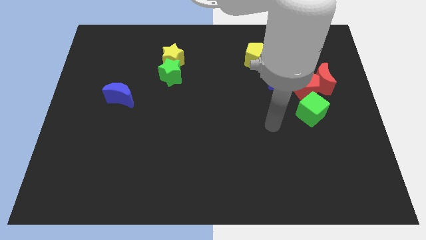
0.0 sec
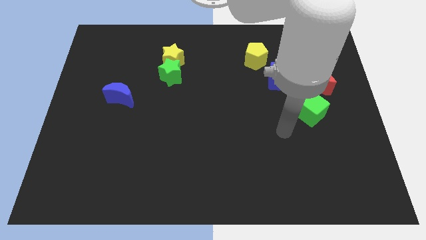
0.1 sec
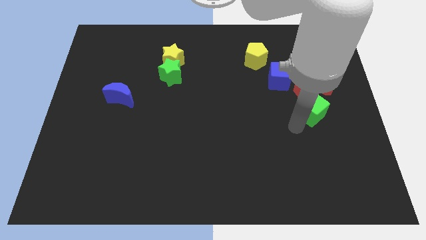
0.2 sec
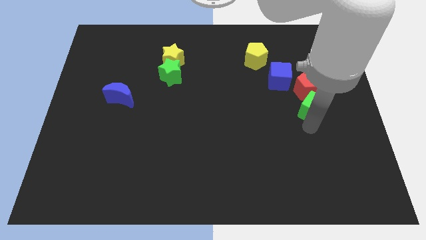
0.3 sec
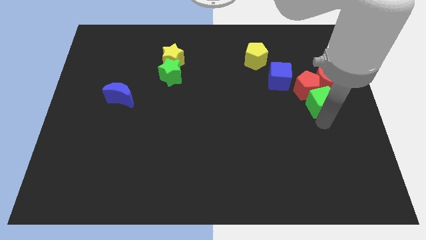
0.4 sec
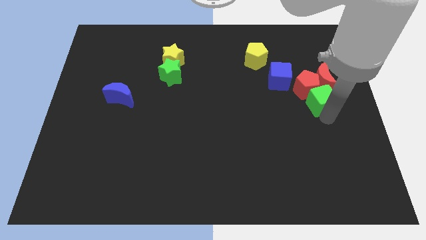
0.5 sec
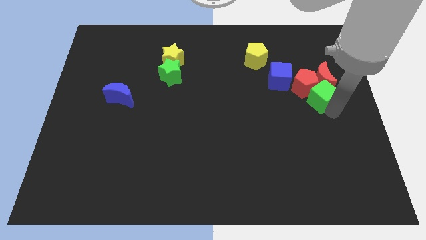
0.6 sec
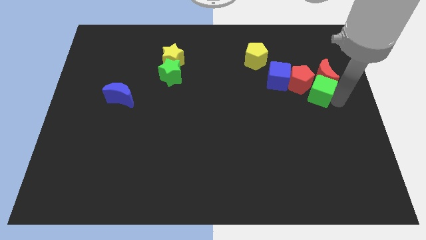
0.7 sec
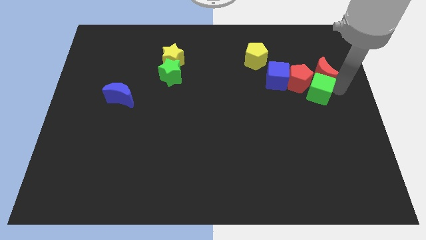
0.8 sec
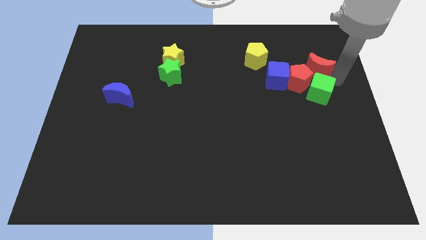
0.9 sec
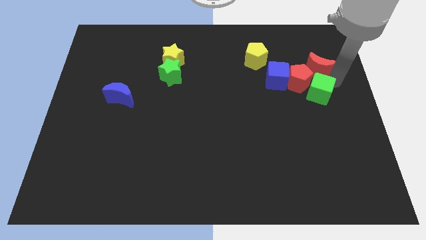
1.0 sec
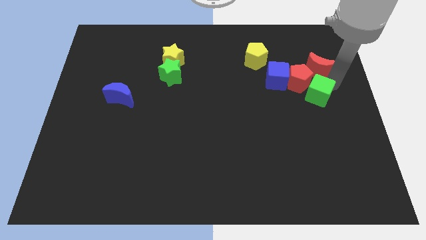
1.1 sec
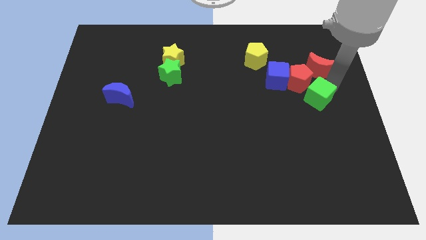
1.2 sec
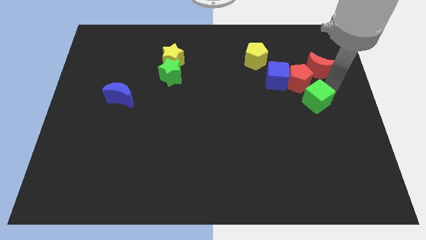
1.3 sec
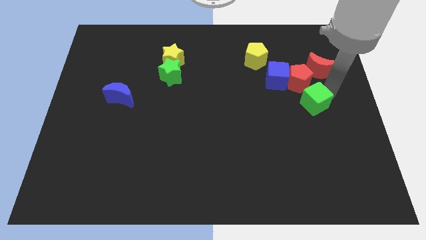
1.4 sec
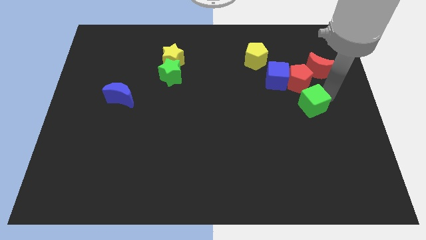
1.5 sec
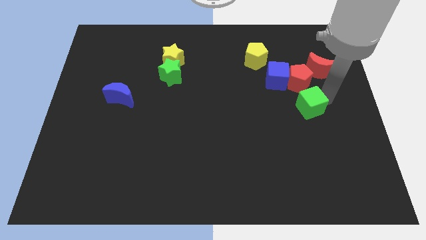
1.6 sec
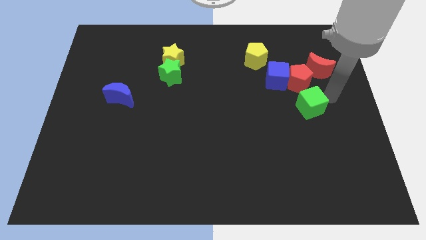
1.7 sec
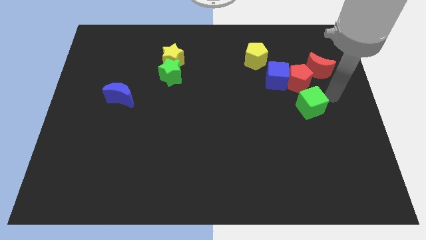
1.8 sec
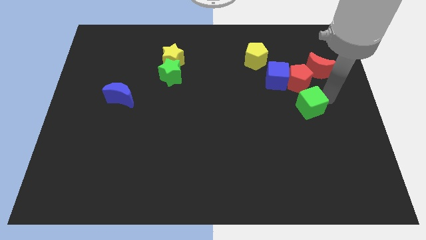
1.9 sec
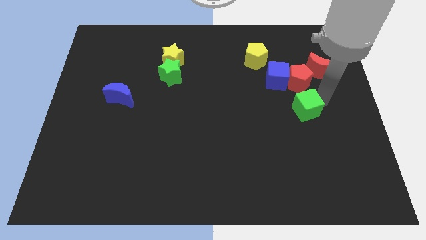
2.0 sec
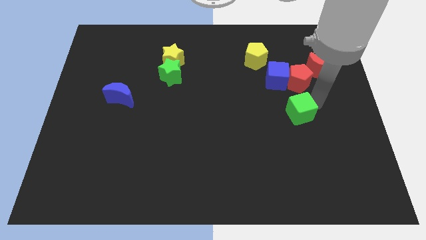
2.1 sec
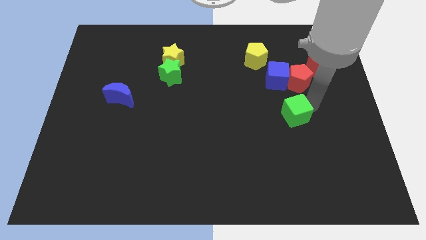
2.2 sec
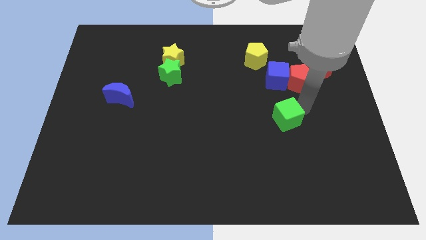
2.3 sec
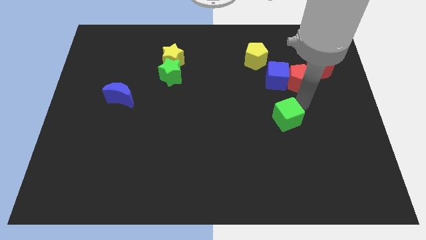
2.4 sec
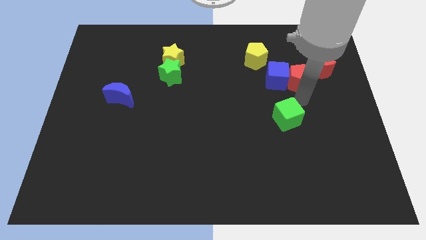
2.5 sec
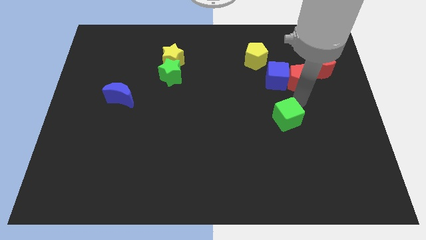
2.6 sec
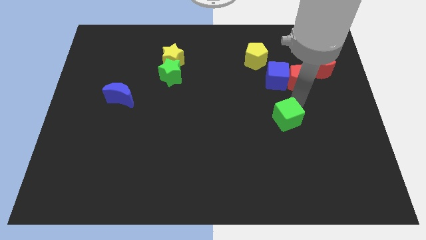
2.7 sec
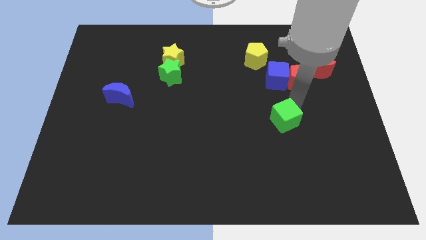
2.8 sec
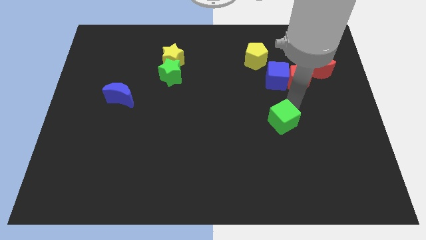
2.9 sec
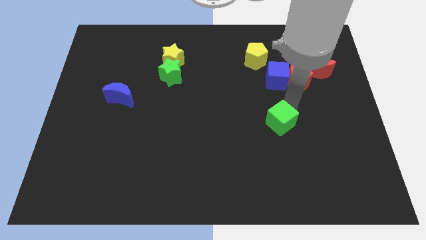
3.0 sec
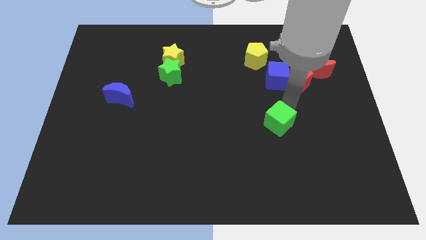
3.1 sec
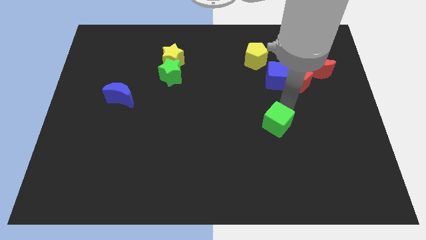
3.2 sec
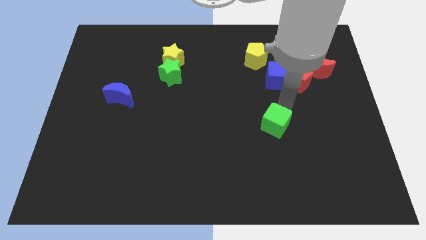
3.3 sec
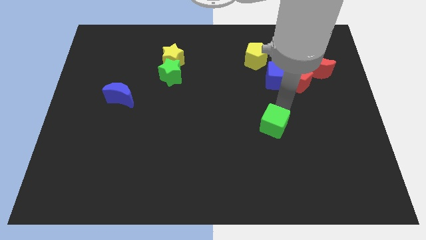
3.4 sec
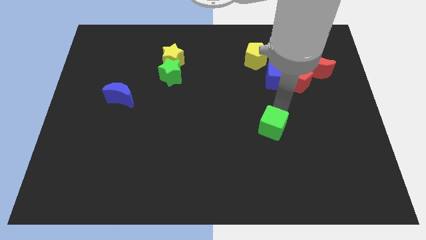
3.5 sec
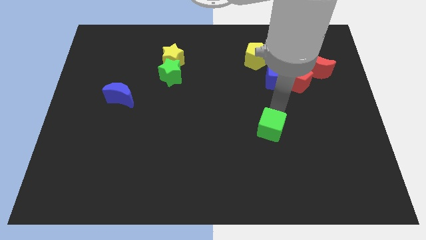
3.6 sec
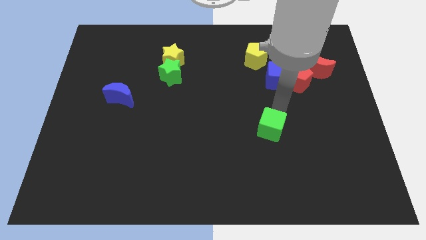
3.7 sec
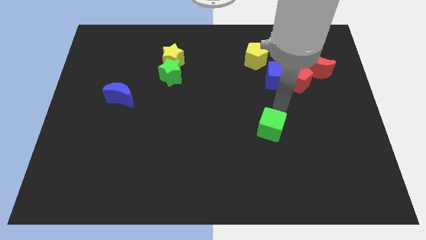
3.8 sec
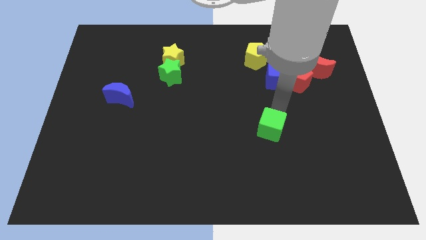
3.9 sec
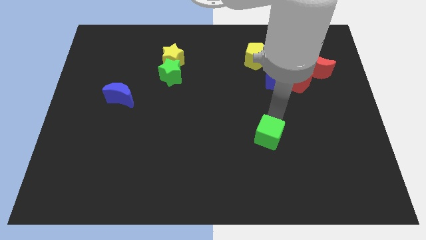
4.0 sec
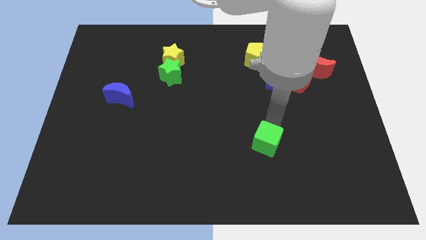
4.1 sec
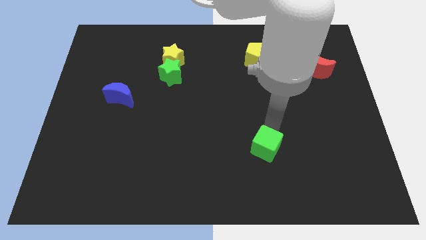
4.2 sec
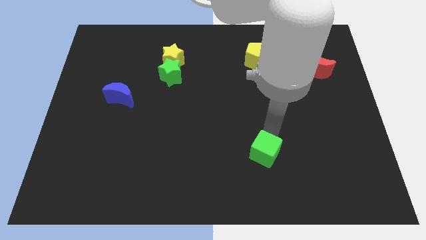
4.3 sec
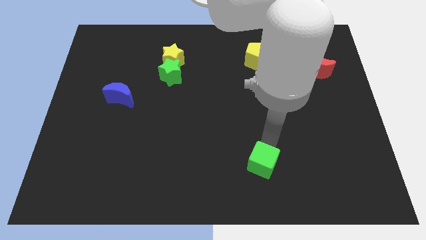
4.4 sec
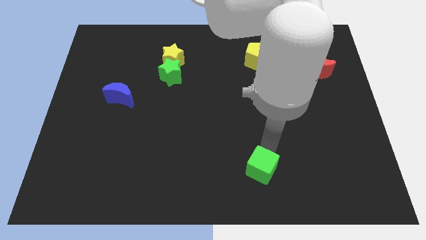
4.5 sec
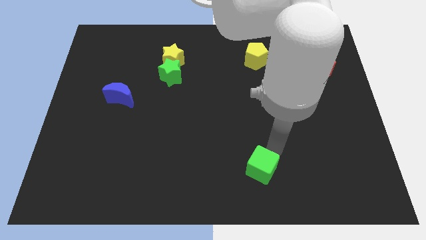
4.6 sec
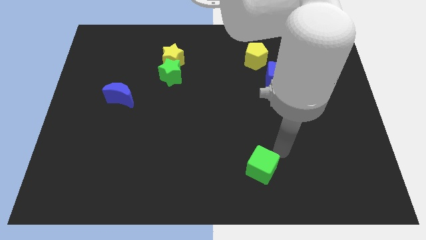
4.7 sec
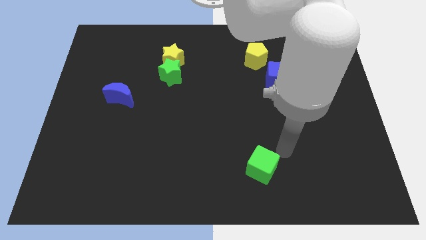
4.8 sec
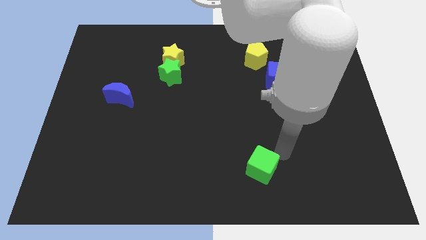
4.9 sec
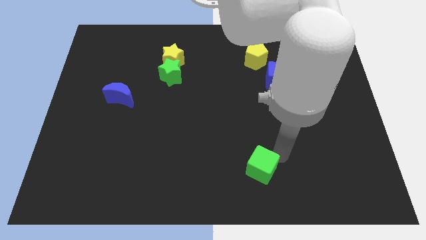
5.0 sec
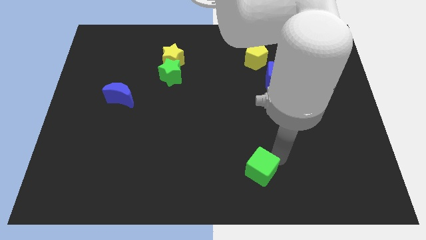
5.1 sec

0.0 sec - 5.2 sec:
move the green cube to the bottom

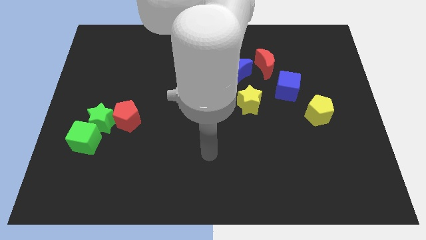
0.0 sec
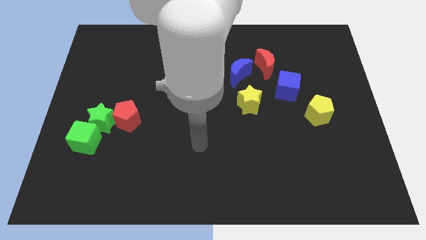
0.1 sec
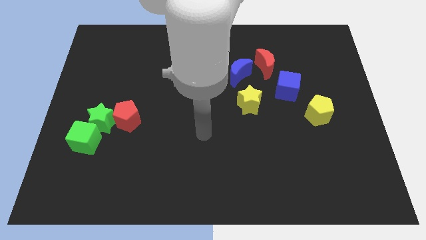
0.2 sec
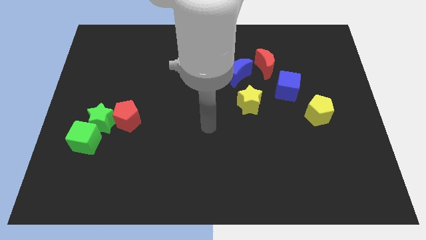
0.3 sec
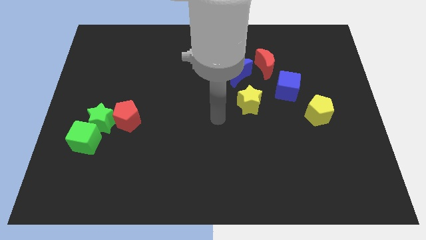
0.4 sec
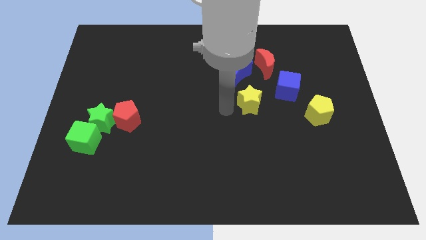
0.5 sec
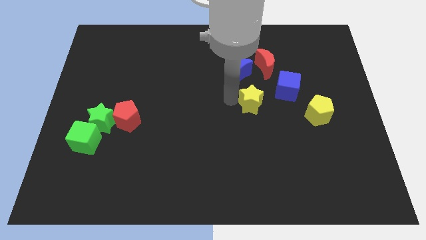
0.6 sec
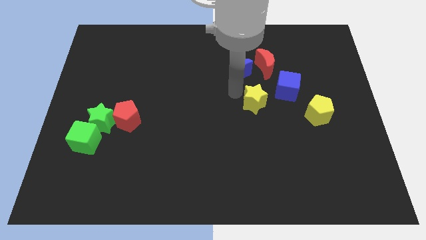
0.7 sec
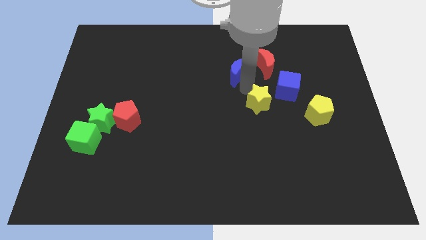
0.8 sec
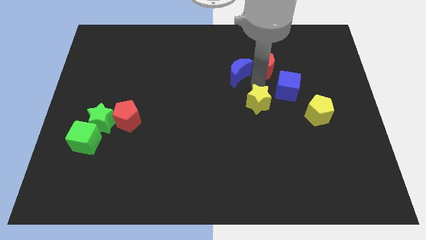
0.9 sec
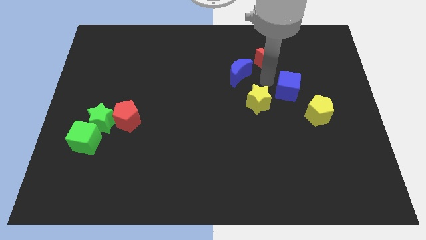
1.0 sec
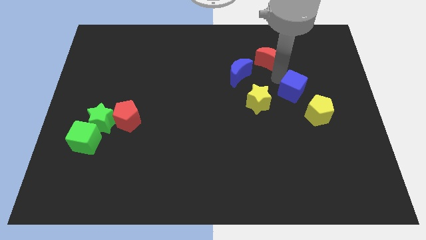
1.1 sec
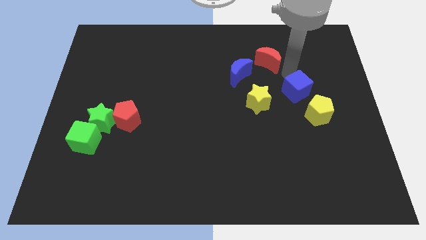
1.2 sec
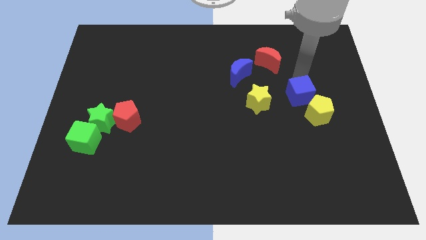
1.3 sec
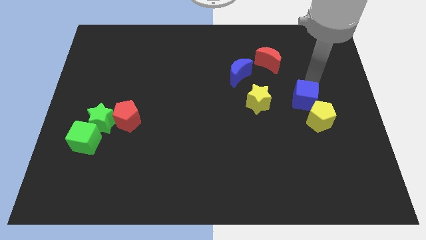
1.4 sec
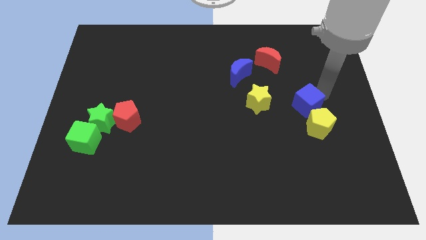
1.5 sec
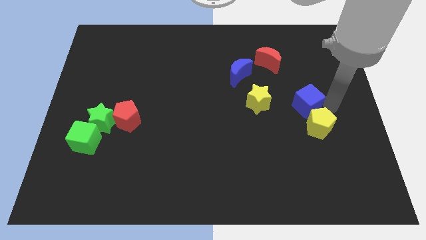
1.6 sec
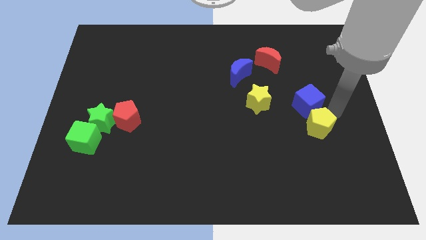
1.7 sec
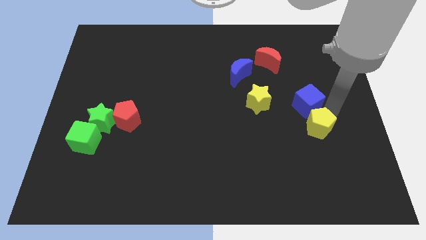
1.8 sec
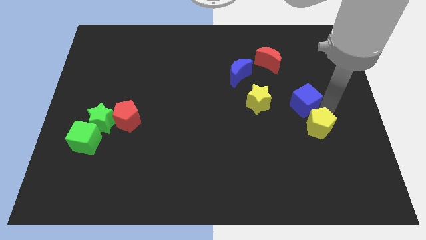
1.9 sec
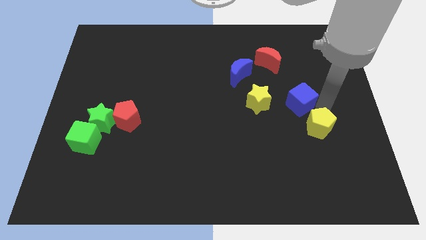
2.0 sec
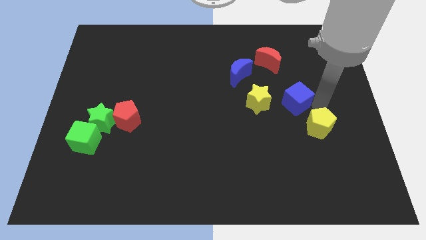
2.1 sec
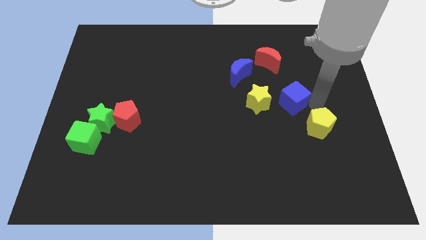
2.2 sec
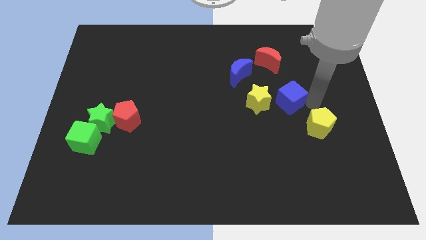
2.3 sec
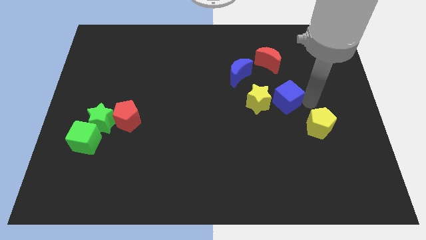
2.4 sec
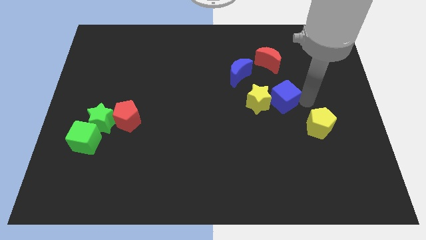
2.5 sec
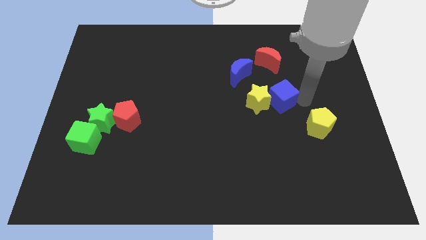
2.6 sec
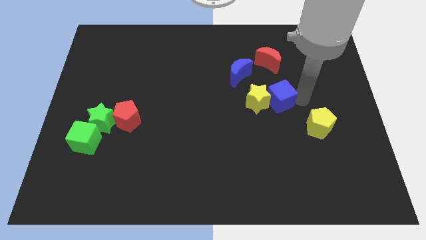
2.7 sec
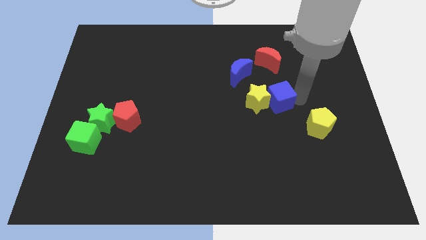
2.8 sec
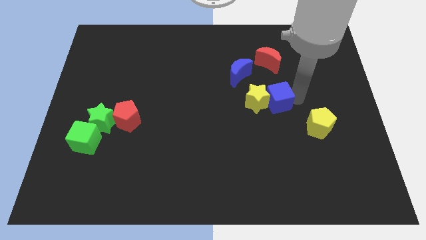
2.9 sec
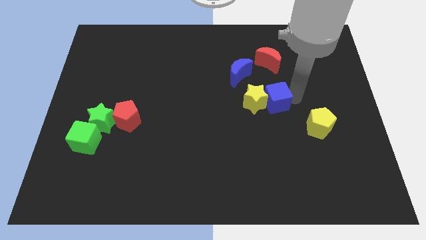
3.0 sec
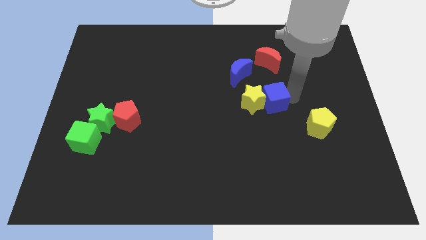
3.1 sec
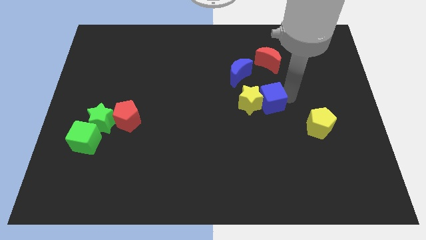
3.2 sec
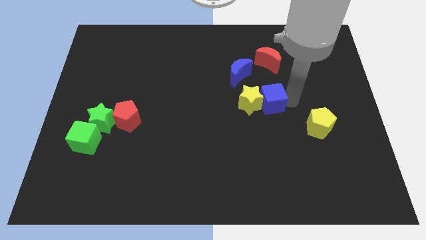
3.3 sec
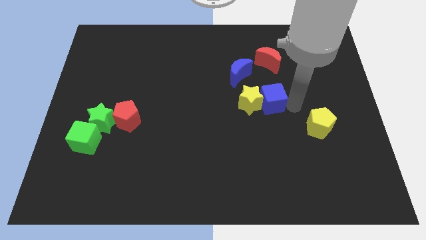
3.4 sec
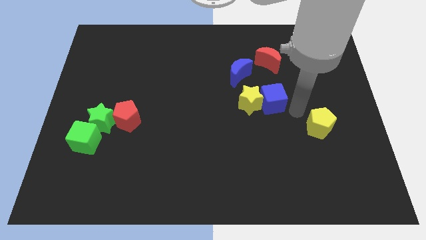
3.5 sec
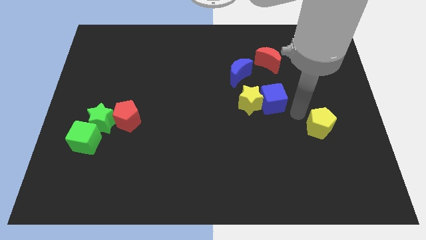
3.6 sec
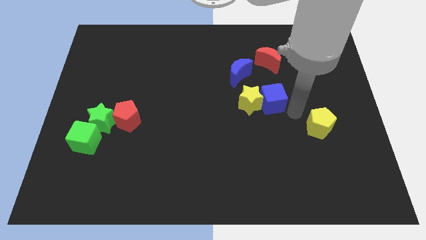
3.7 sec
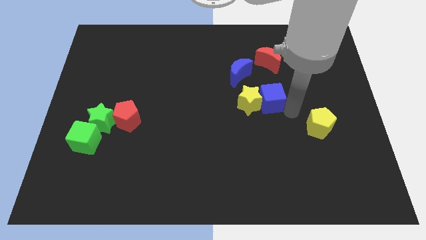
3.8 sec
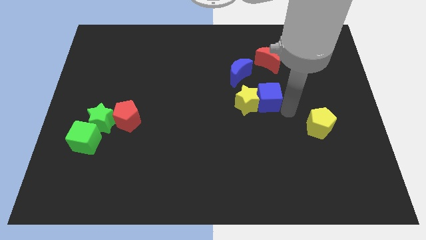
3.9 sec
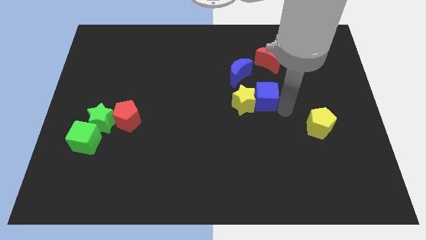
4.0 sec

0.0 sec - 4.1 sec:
move the blue cube to the middle of the board
